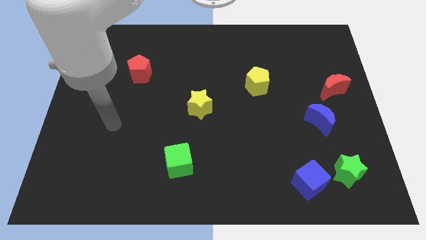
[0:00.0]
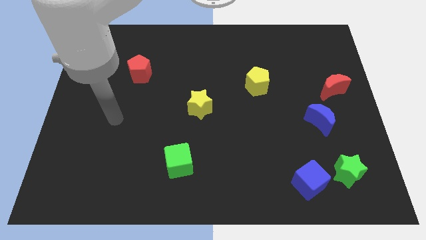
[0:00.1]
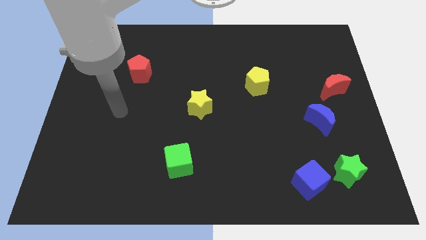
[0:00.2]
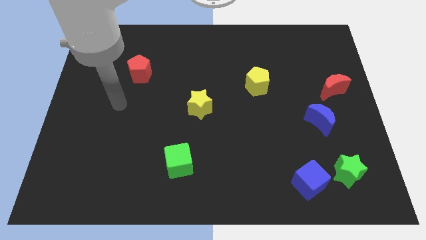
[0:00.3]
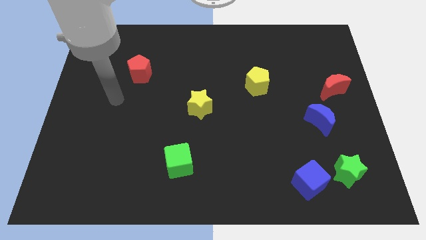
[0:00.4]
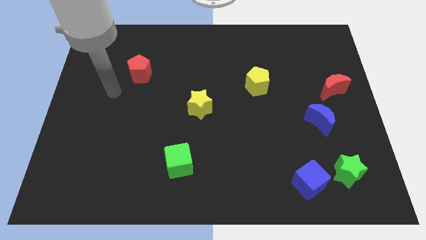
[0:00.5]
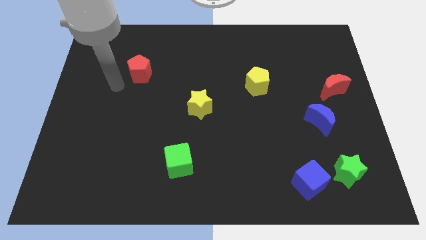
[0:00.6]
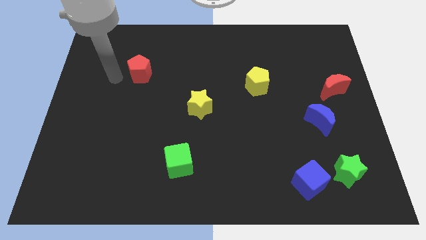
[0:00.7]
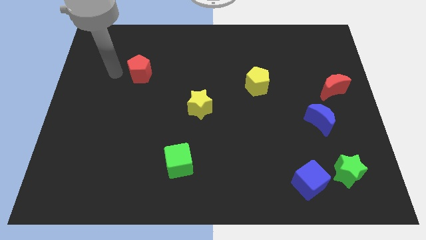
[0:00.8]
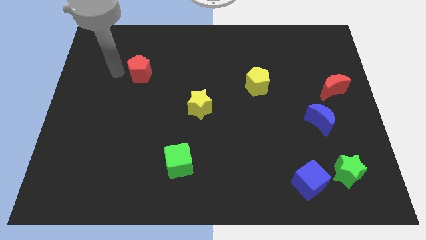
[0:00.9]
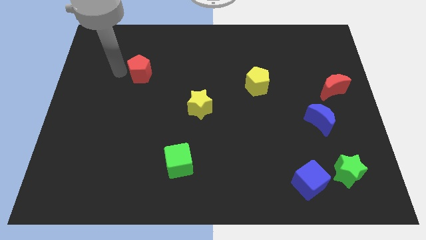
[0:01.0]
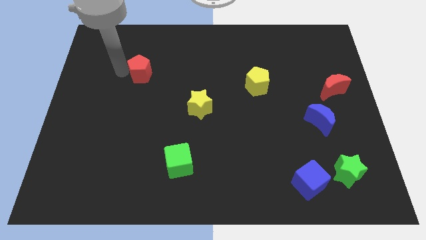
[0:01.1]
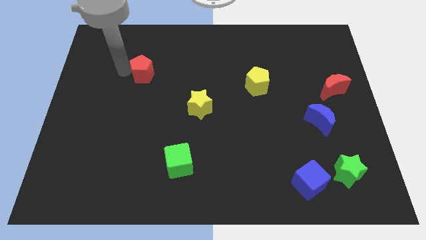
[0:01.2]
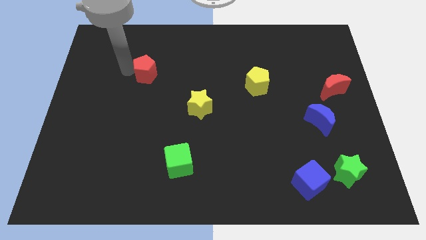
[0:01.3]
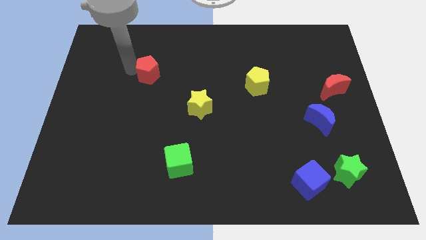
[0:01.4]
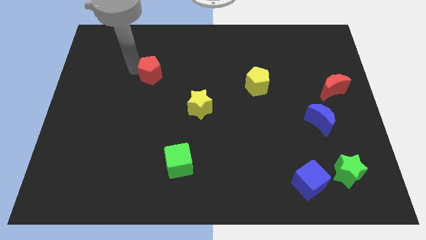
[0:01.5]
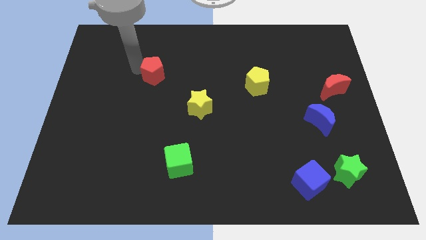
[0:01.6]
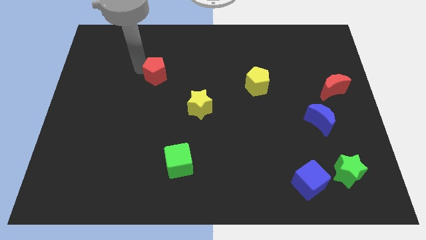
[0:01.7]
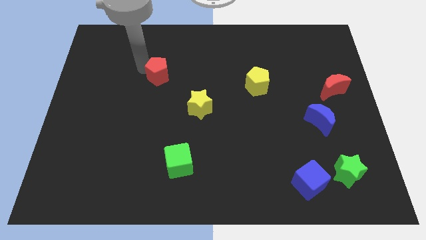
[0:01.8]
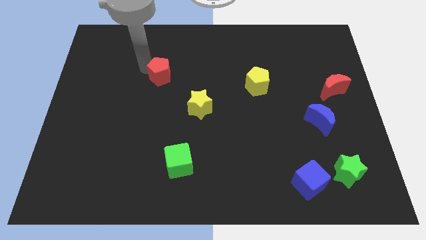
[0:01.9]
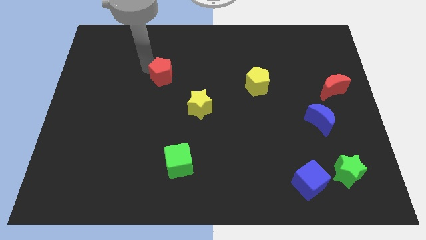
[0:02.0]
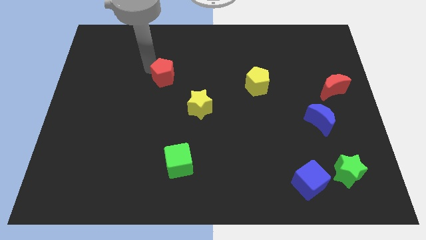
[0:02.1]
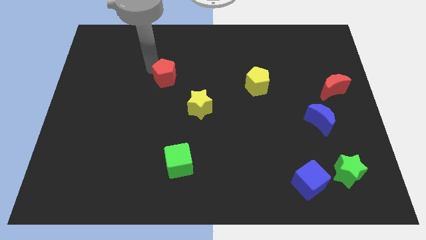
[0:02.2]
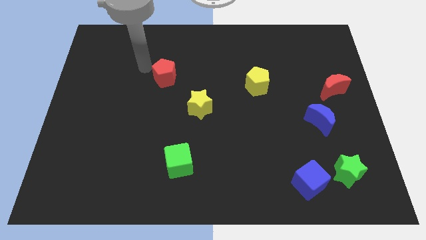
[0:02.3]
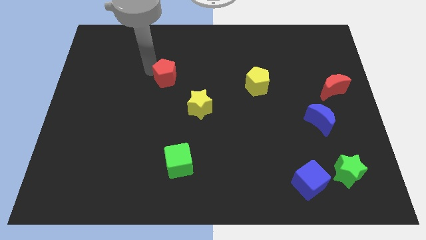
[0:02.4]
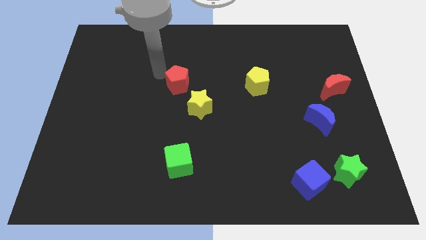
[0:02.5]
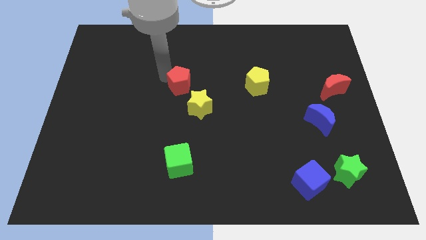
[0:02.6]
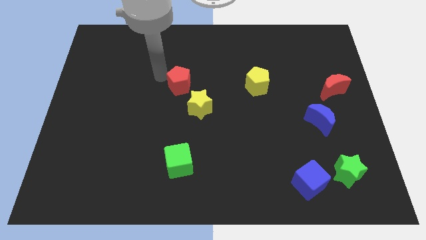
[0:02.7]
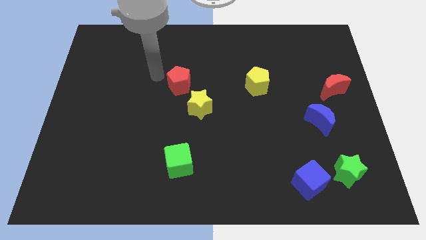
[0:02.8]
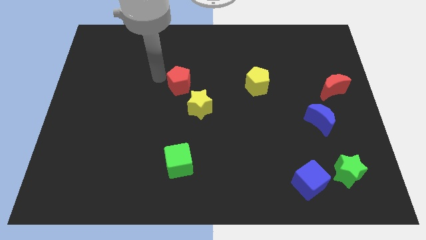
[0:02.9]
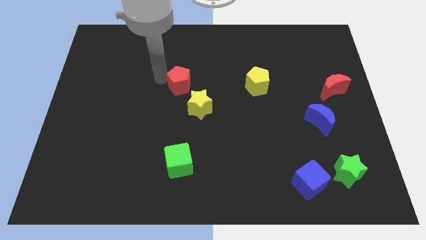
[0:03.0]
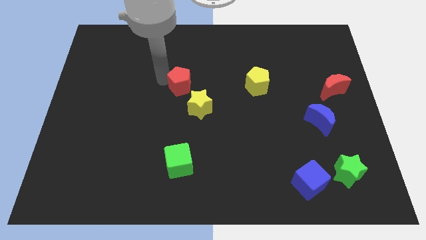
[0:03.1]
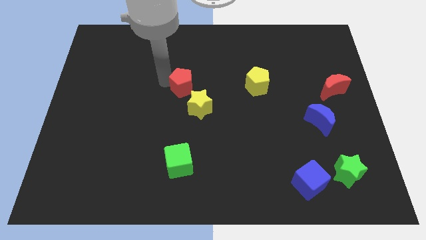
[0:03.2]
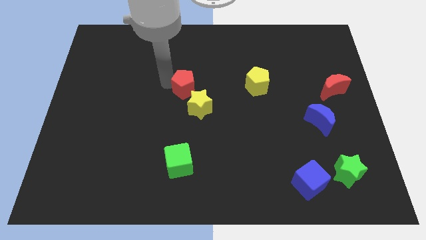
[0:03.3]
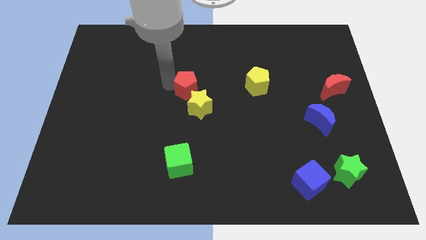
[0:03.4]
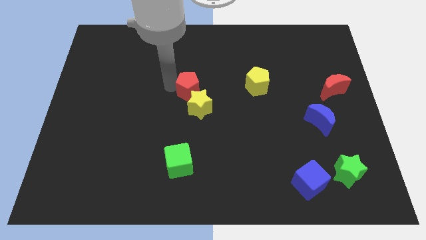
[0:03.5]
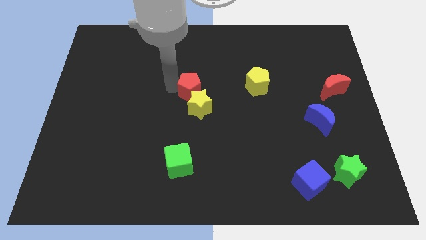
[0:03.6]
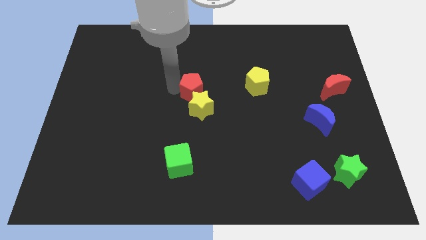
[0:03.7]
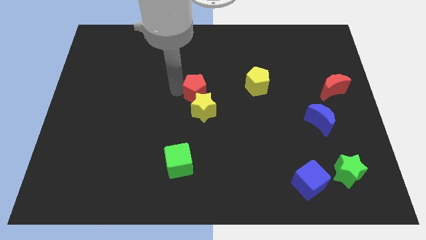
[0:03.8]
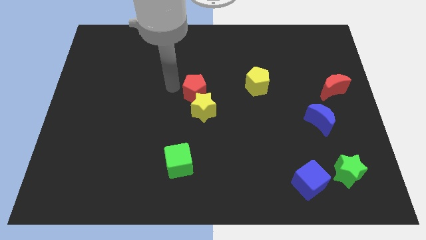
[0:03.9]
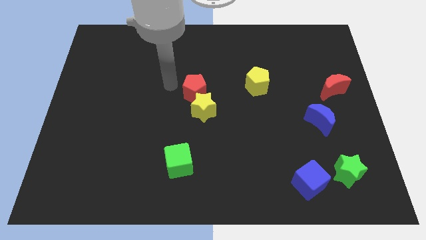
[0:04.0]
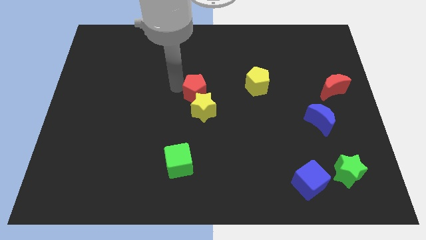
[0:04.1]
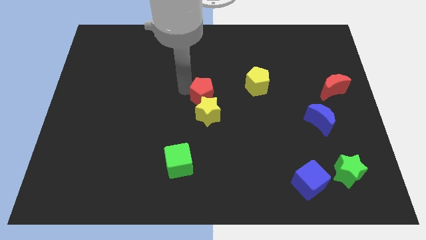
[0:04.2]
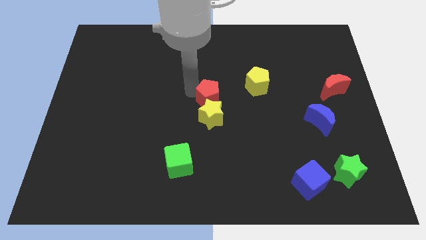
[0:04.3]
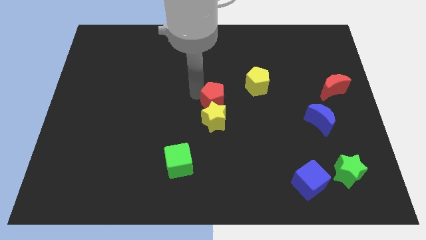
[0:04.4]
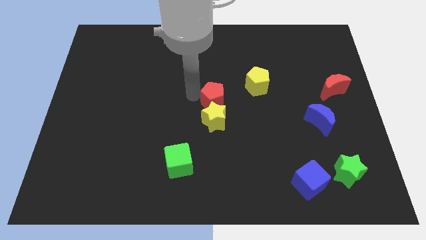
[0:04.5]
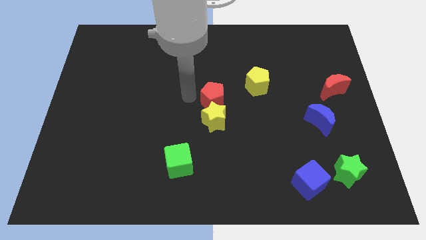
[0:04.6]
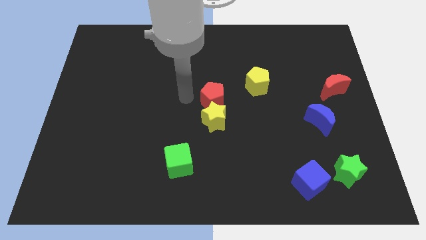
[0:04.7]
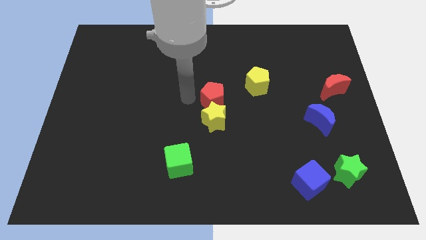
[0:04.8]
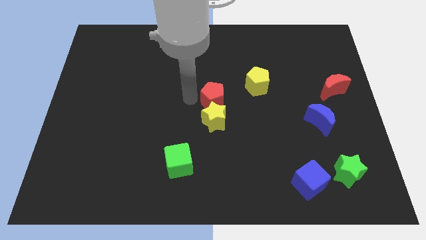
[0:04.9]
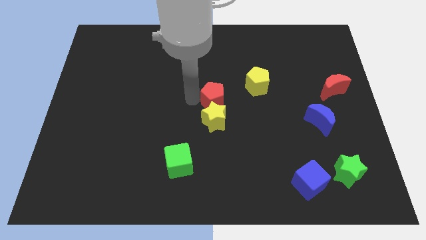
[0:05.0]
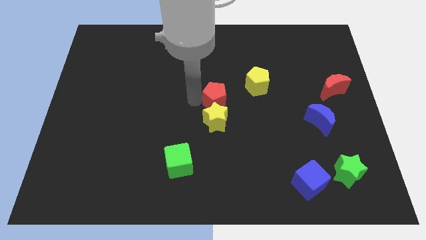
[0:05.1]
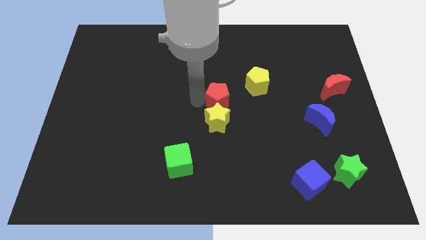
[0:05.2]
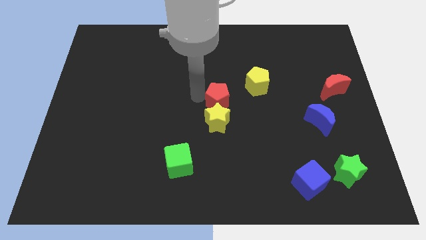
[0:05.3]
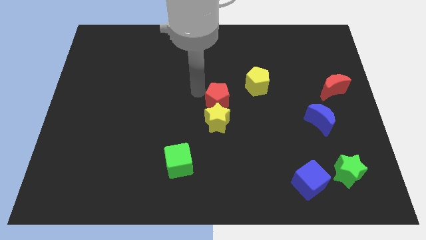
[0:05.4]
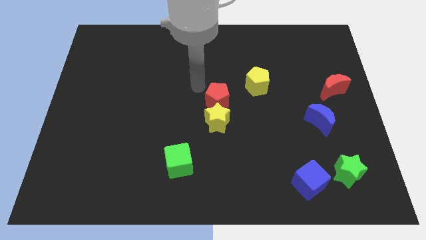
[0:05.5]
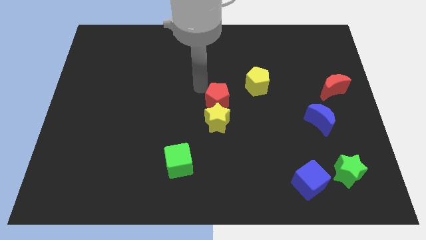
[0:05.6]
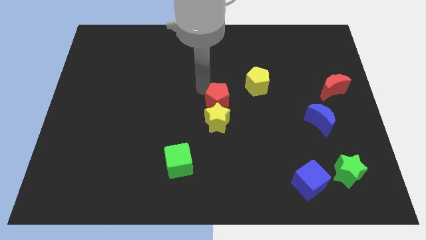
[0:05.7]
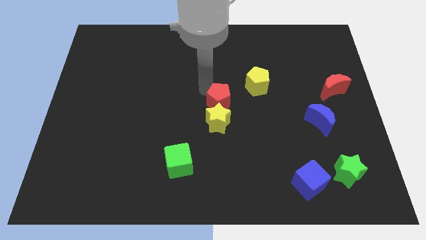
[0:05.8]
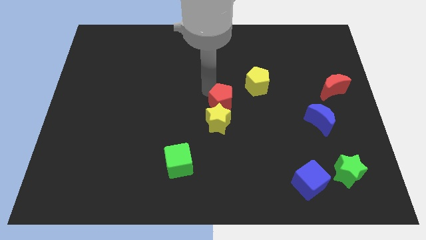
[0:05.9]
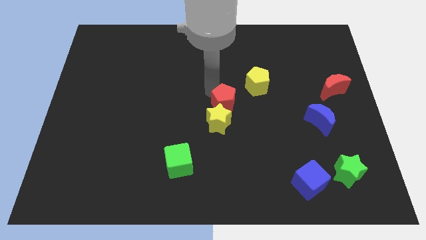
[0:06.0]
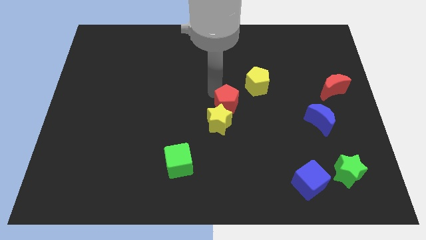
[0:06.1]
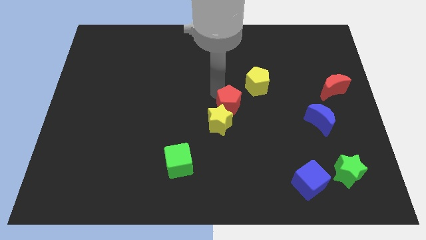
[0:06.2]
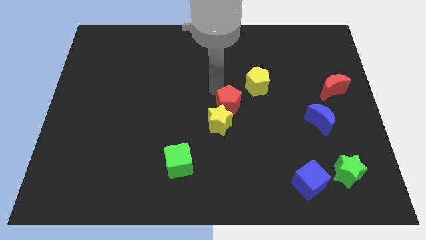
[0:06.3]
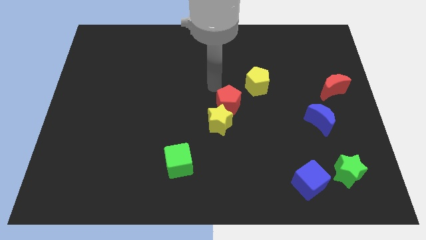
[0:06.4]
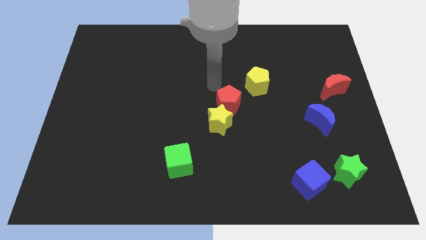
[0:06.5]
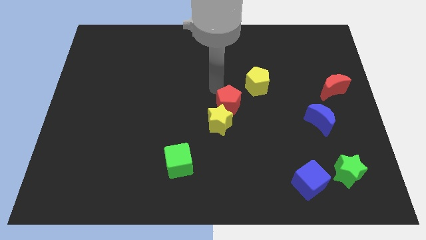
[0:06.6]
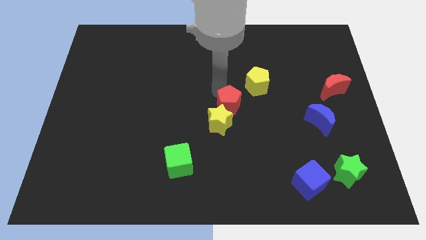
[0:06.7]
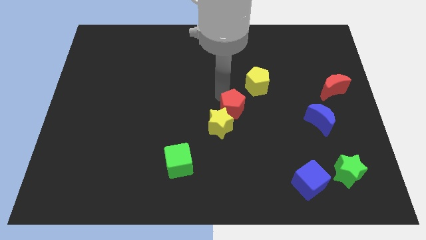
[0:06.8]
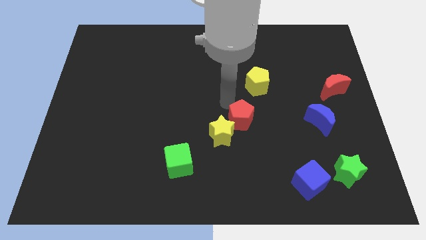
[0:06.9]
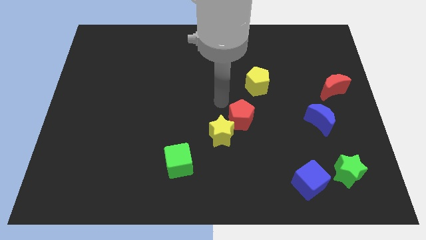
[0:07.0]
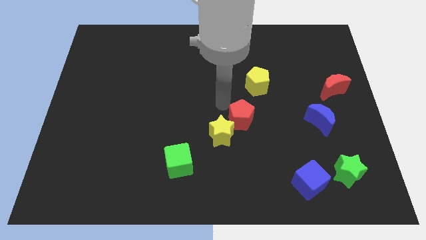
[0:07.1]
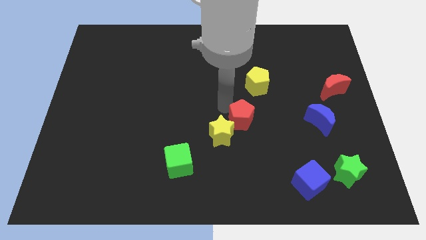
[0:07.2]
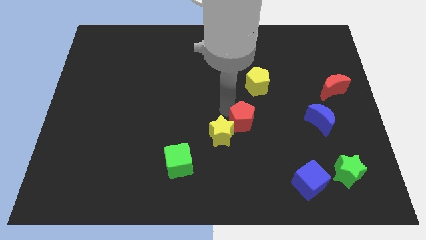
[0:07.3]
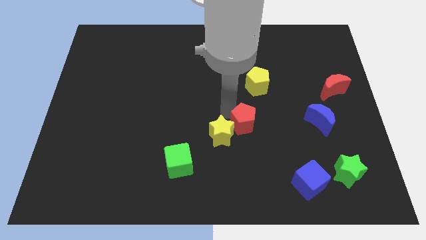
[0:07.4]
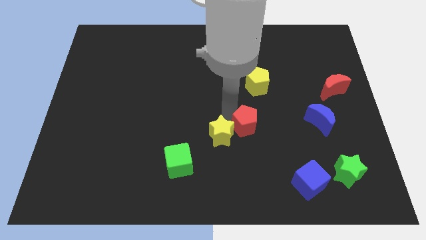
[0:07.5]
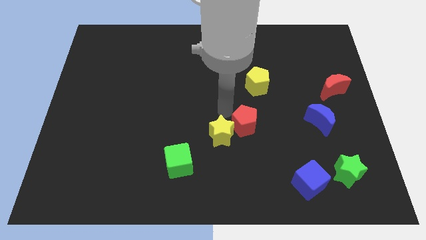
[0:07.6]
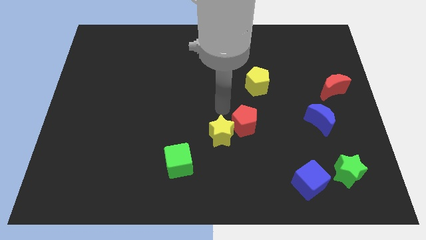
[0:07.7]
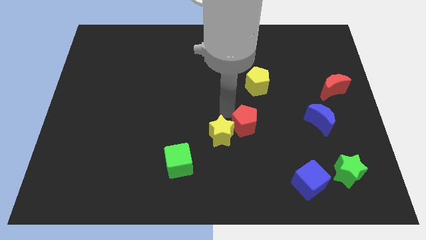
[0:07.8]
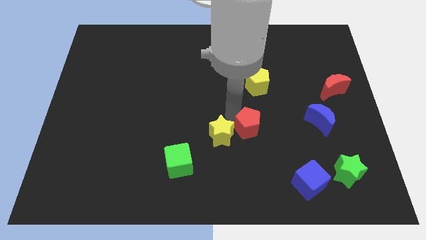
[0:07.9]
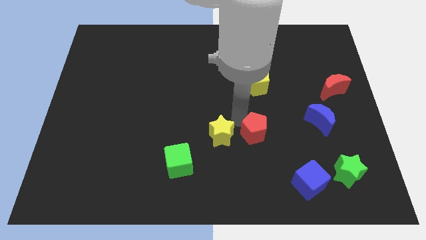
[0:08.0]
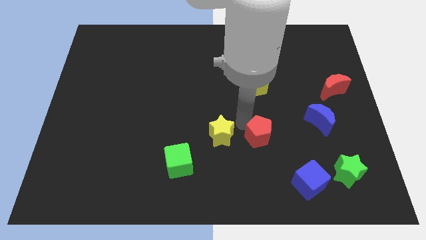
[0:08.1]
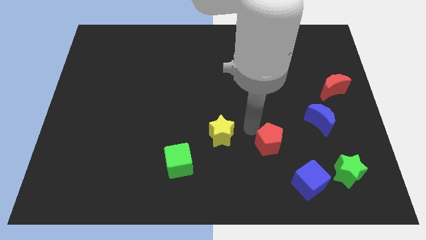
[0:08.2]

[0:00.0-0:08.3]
move the red pentagon to the top left side of the blue cube

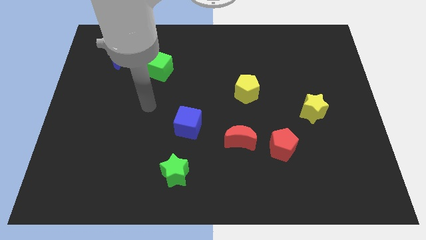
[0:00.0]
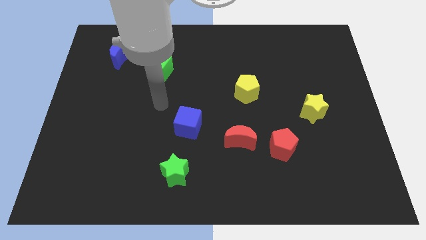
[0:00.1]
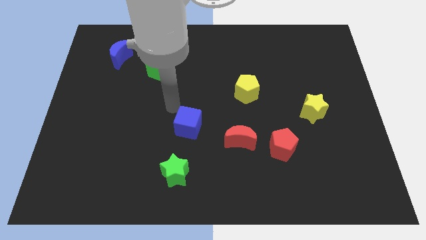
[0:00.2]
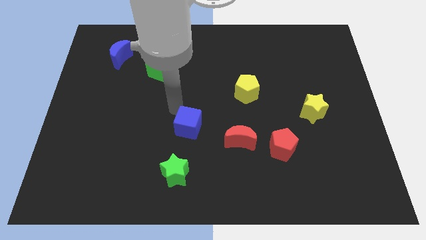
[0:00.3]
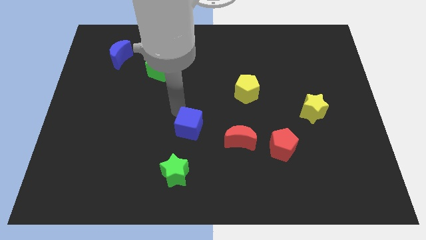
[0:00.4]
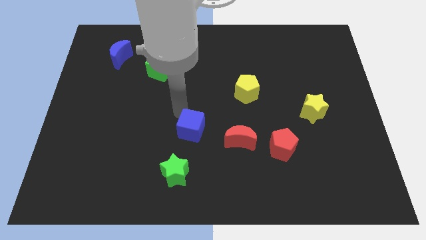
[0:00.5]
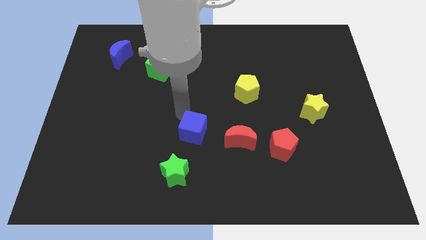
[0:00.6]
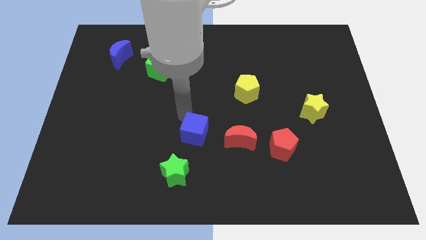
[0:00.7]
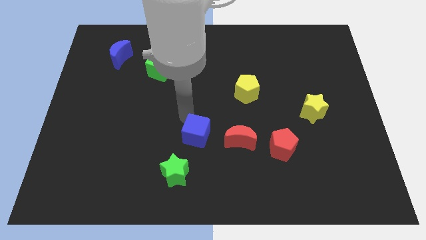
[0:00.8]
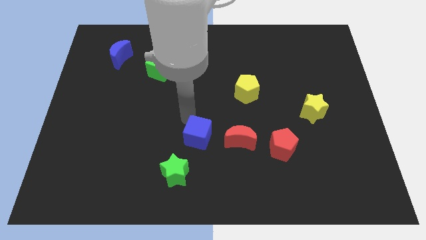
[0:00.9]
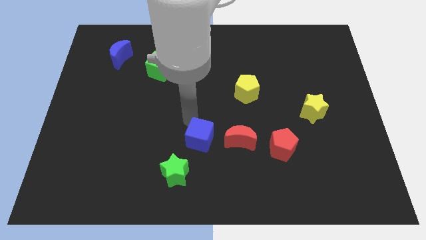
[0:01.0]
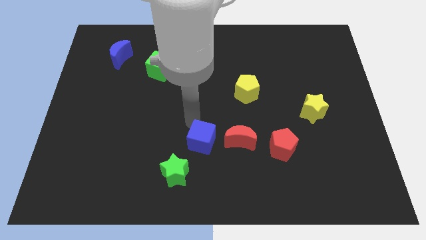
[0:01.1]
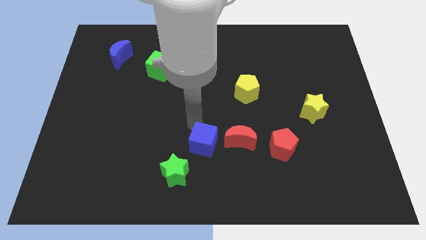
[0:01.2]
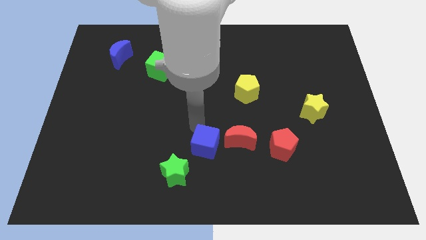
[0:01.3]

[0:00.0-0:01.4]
move the blue cube to the bottom left side of the red moon
